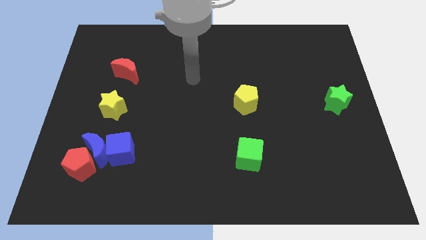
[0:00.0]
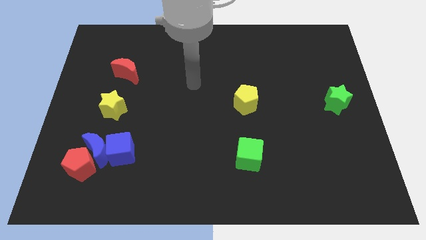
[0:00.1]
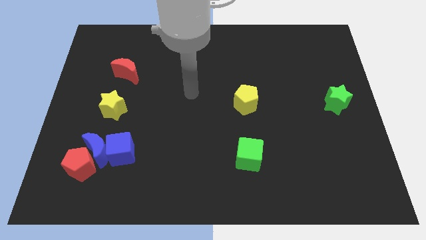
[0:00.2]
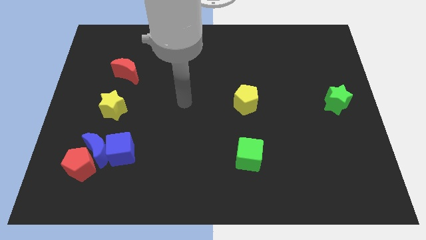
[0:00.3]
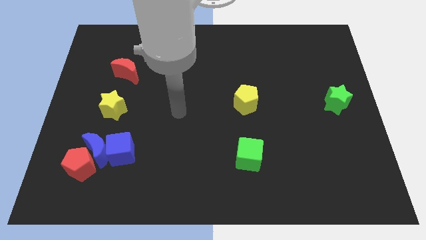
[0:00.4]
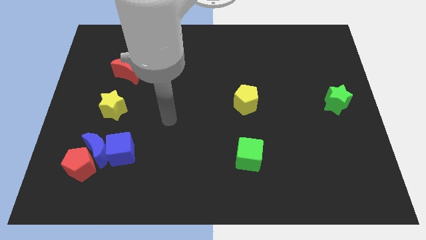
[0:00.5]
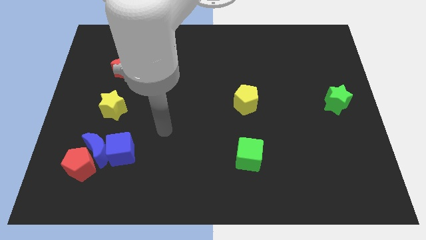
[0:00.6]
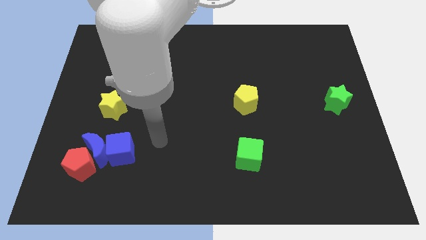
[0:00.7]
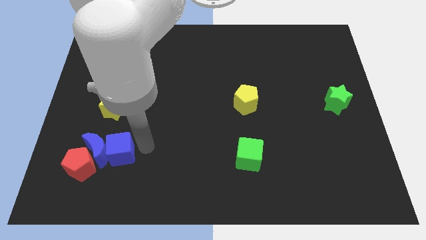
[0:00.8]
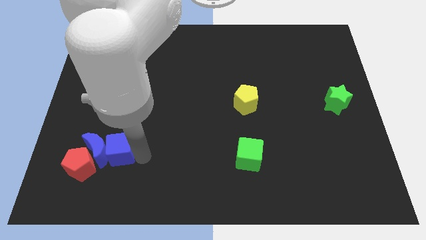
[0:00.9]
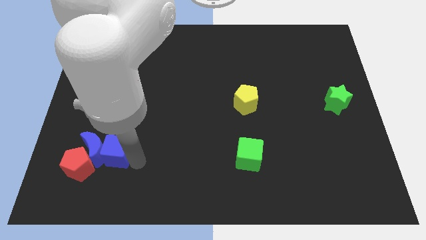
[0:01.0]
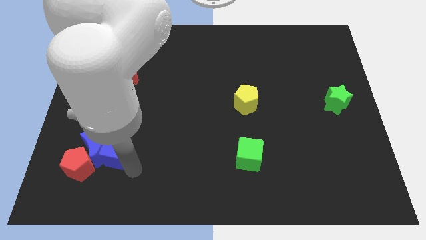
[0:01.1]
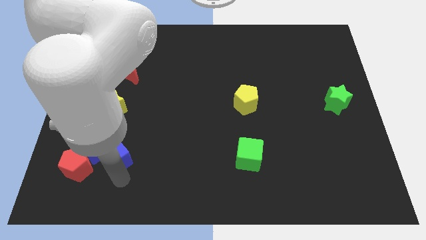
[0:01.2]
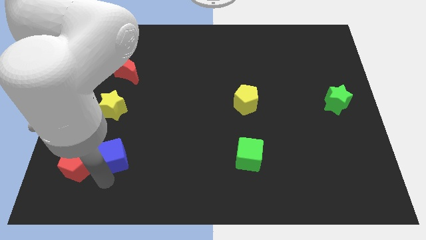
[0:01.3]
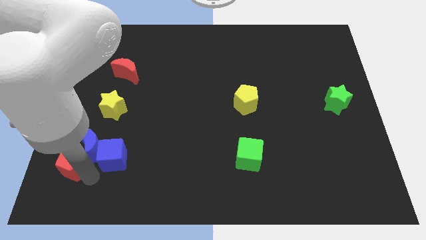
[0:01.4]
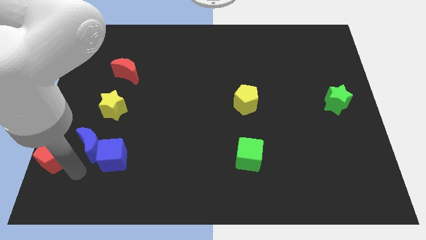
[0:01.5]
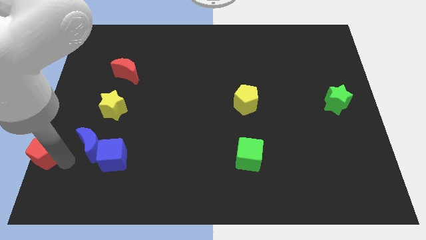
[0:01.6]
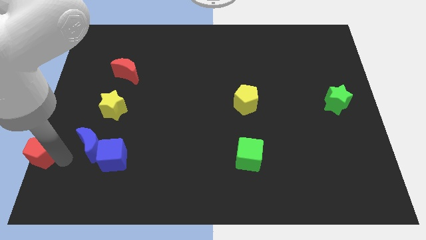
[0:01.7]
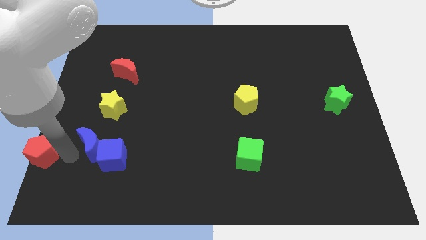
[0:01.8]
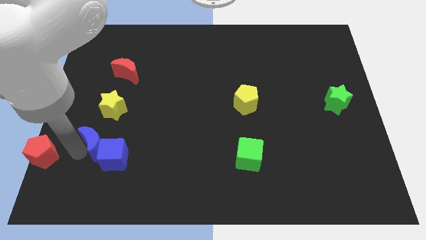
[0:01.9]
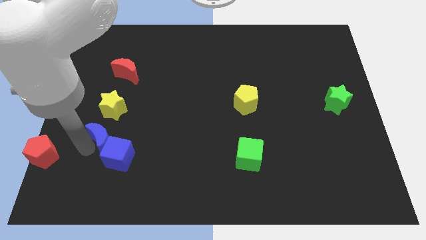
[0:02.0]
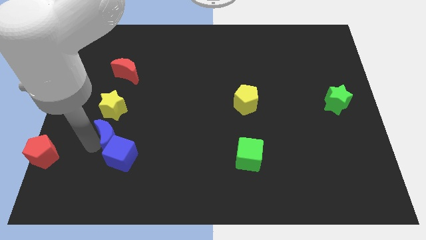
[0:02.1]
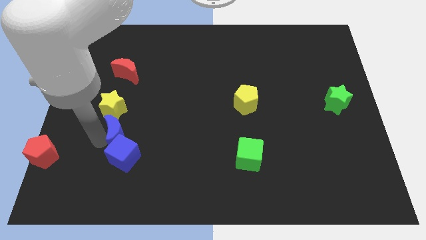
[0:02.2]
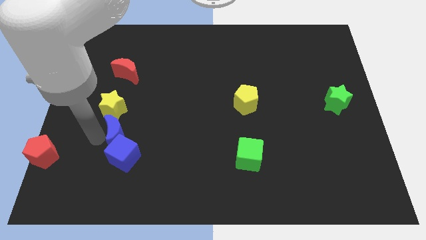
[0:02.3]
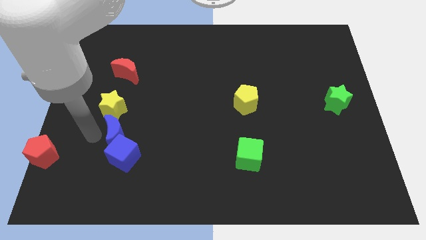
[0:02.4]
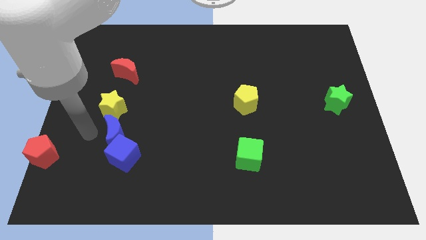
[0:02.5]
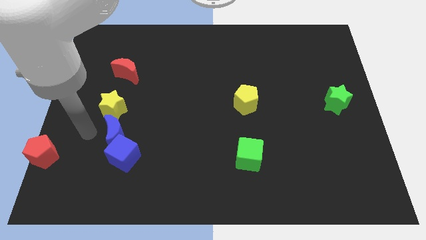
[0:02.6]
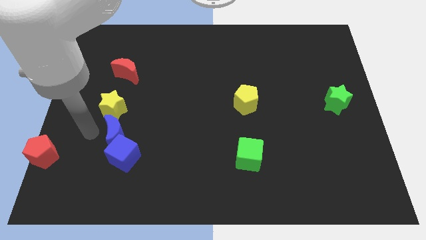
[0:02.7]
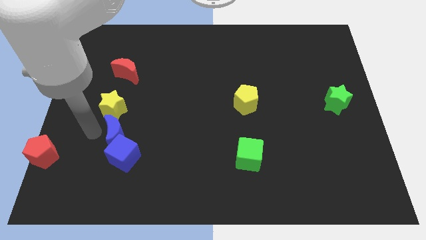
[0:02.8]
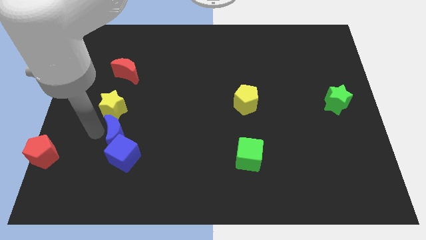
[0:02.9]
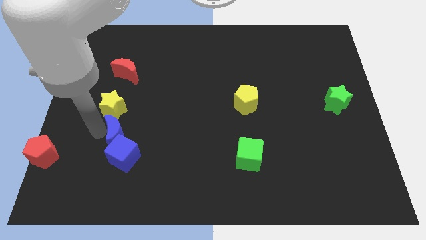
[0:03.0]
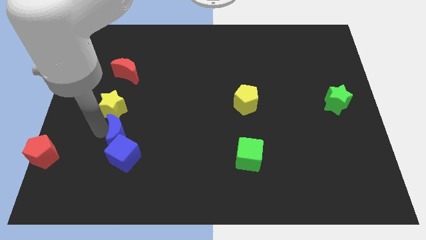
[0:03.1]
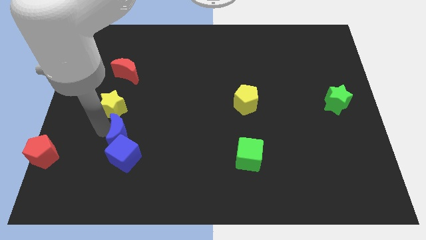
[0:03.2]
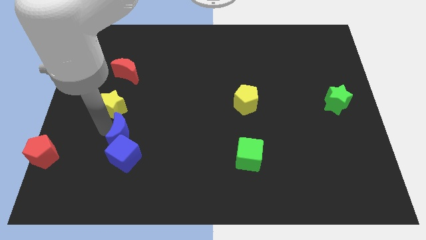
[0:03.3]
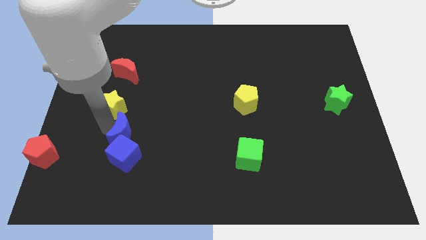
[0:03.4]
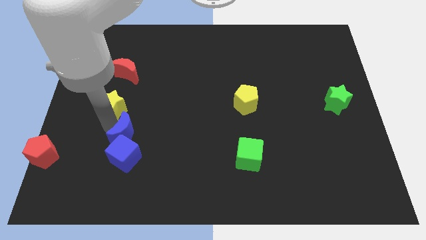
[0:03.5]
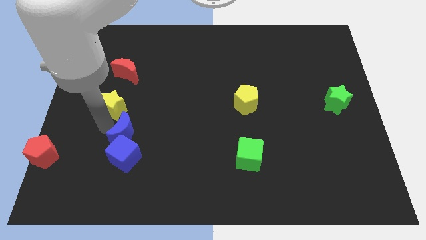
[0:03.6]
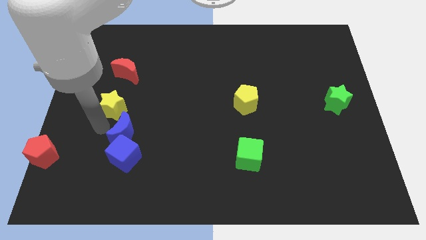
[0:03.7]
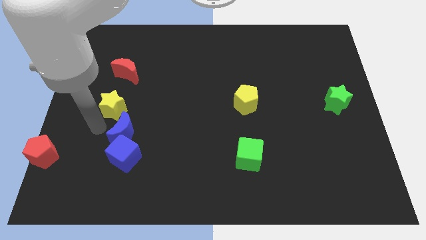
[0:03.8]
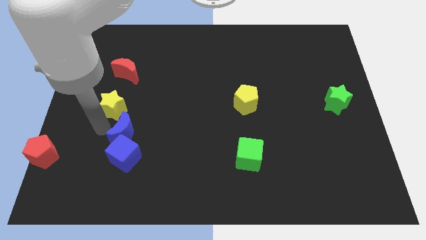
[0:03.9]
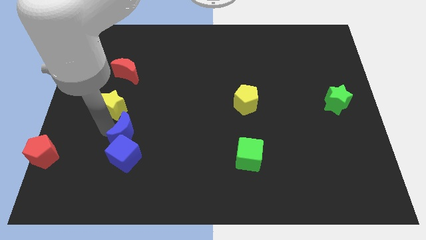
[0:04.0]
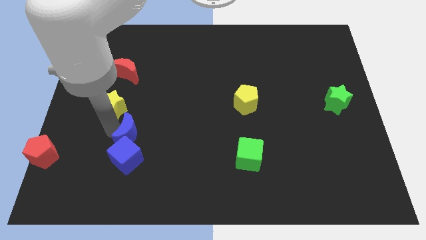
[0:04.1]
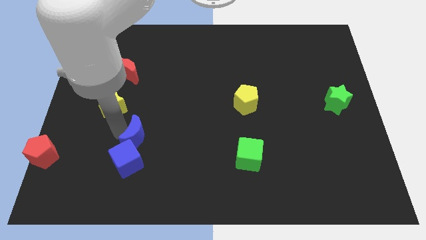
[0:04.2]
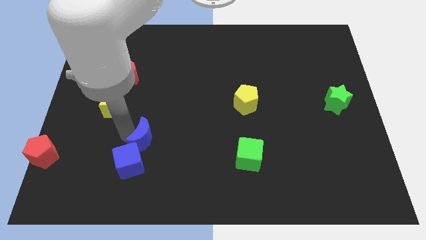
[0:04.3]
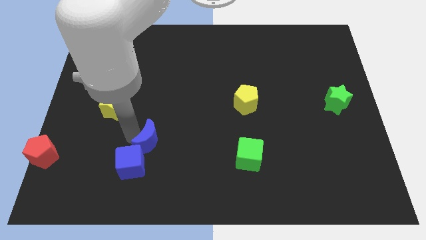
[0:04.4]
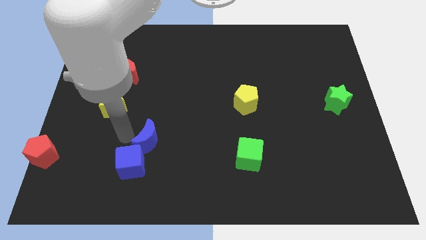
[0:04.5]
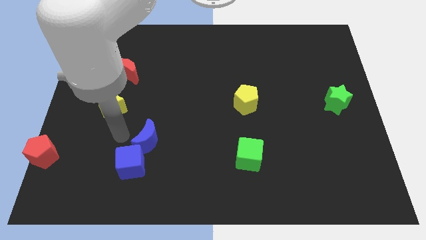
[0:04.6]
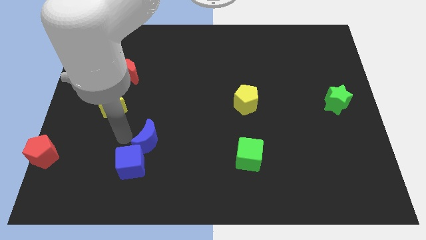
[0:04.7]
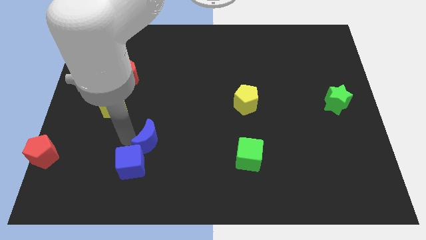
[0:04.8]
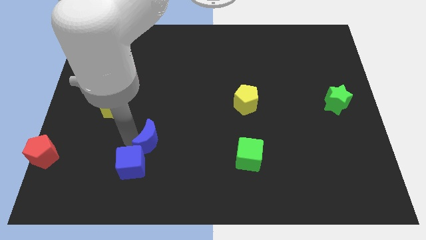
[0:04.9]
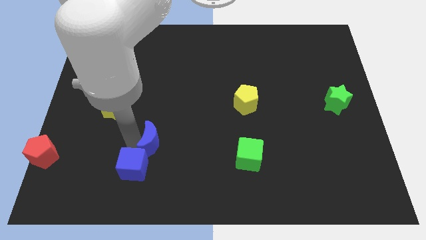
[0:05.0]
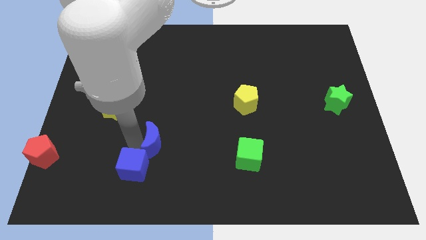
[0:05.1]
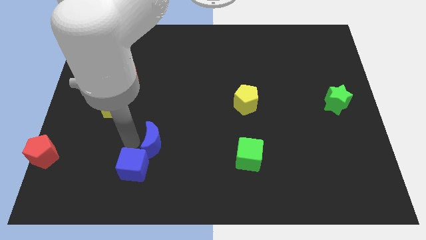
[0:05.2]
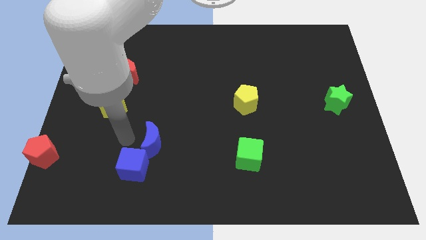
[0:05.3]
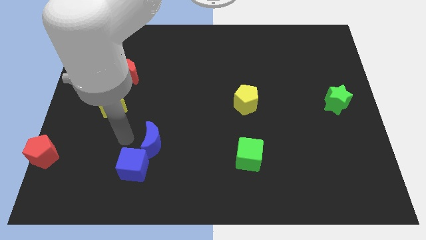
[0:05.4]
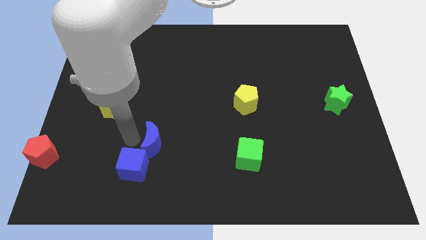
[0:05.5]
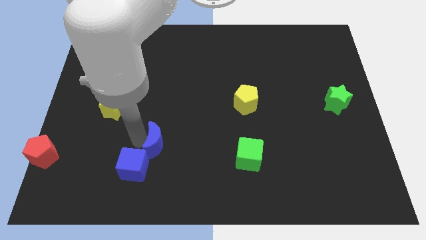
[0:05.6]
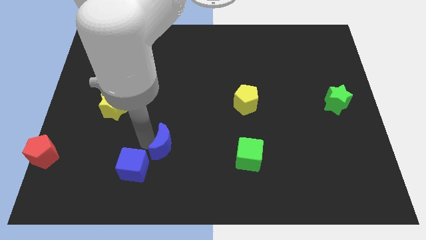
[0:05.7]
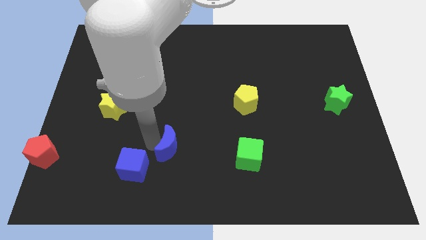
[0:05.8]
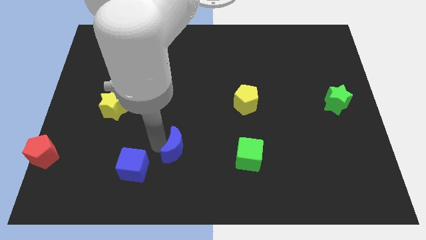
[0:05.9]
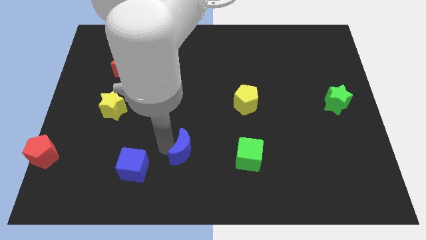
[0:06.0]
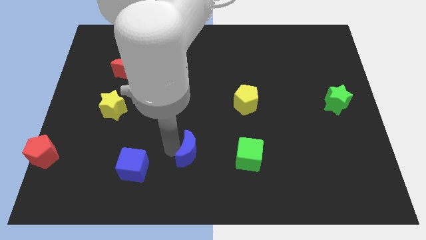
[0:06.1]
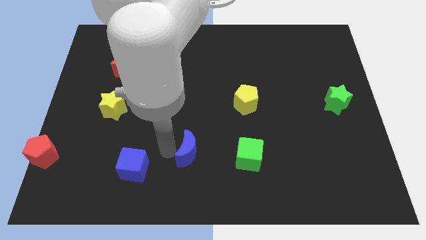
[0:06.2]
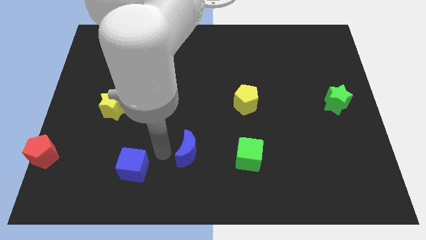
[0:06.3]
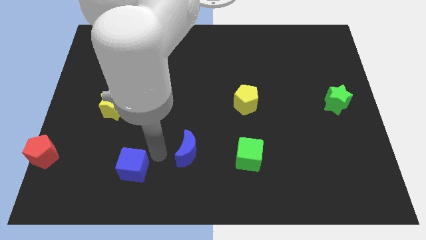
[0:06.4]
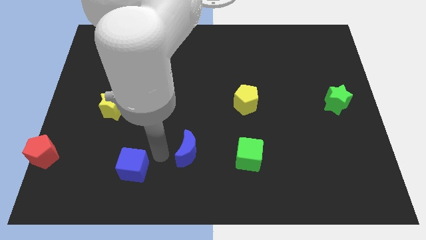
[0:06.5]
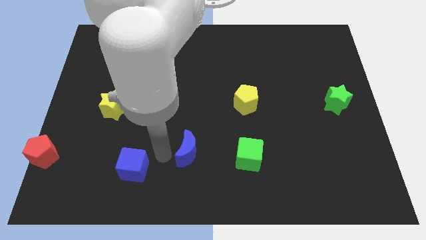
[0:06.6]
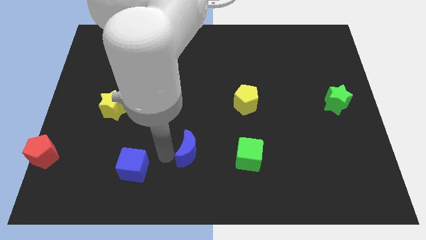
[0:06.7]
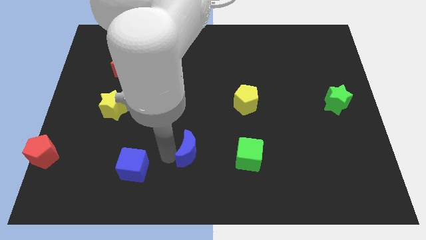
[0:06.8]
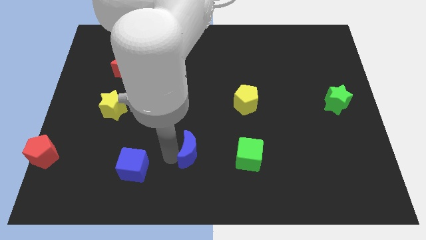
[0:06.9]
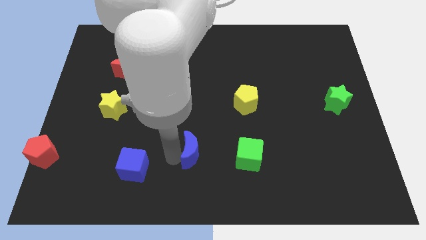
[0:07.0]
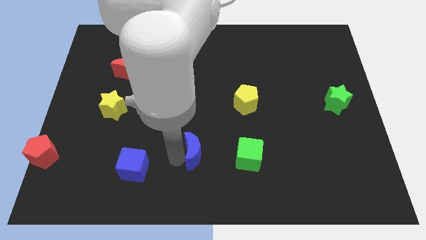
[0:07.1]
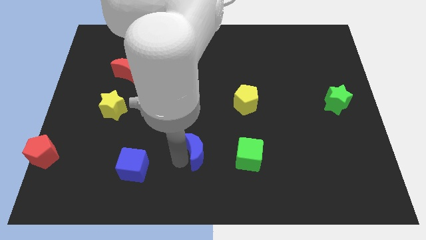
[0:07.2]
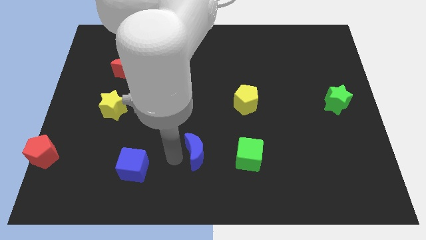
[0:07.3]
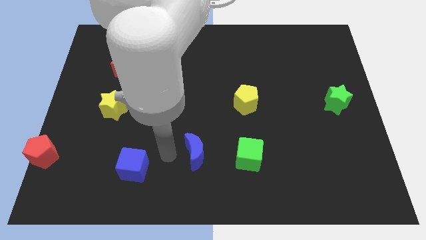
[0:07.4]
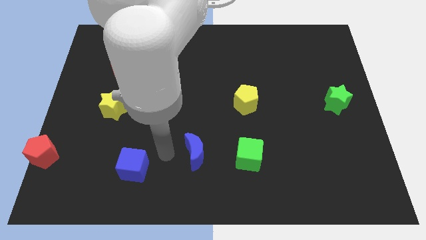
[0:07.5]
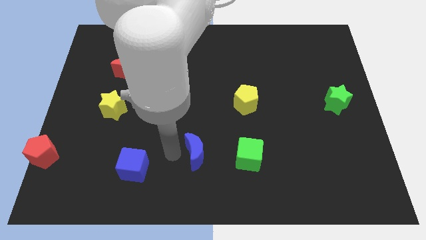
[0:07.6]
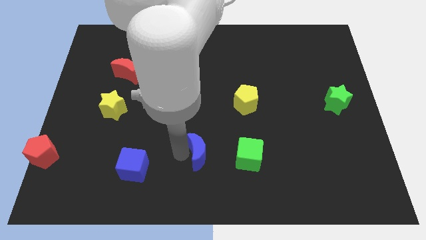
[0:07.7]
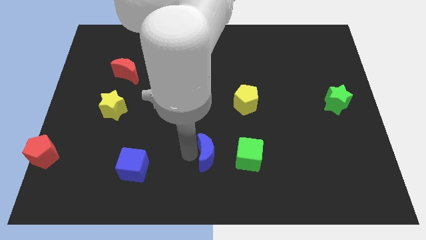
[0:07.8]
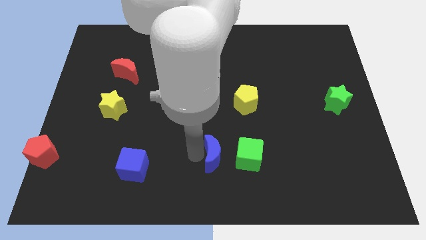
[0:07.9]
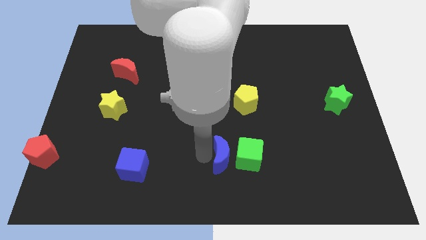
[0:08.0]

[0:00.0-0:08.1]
push the blue moon close to the green cube
